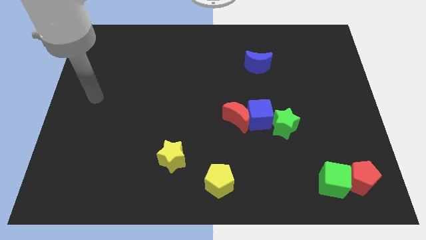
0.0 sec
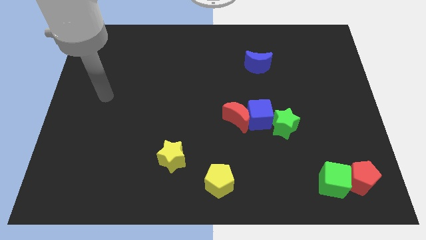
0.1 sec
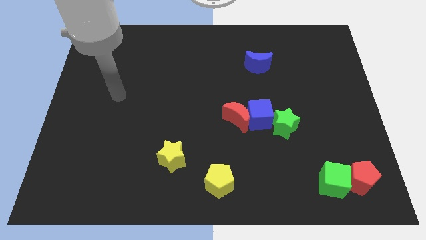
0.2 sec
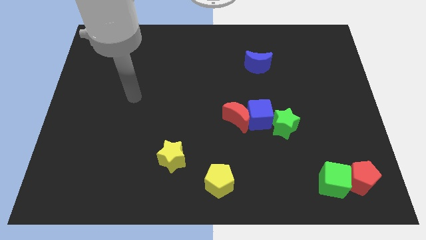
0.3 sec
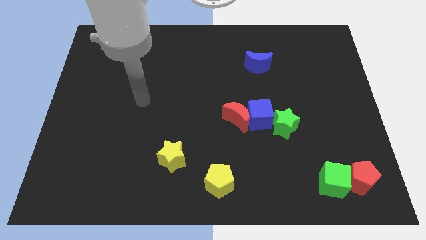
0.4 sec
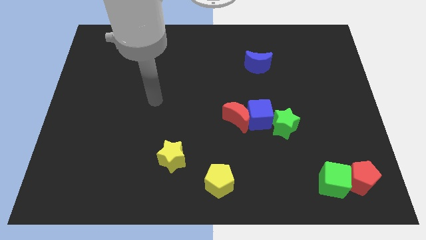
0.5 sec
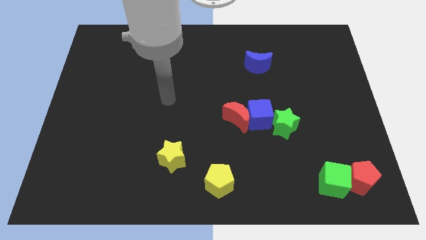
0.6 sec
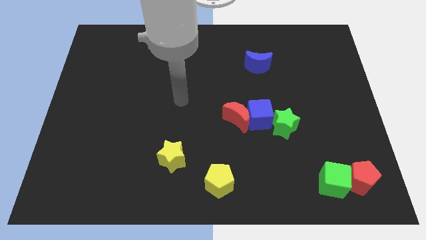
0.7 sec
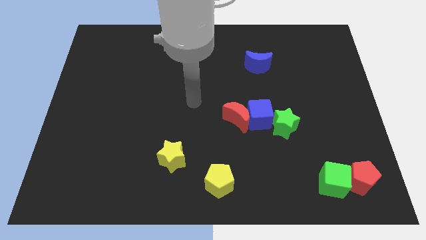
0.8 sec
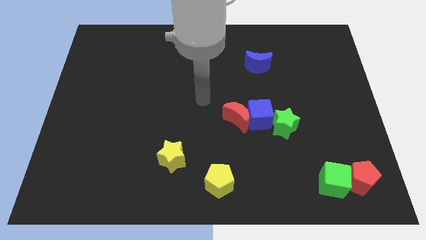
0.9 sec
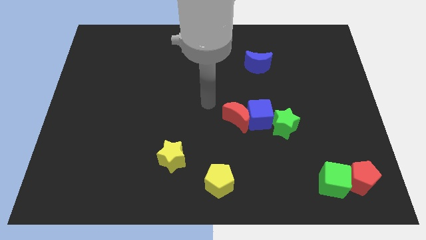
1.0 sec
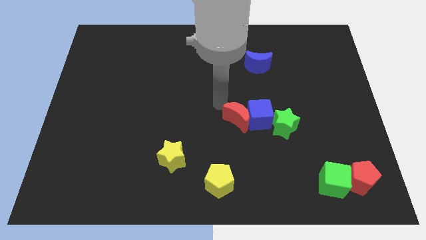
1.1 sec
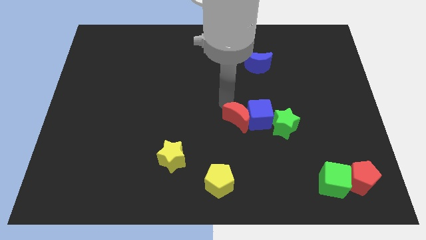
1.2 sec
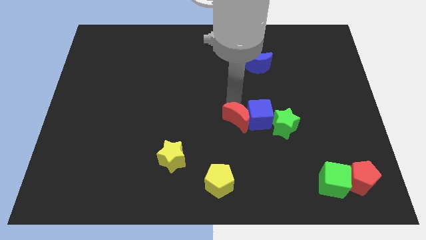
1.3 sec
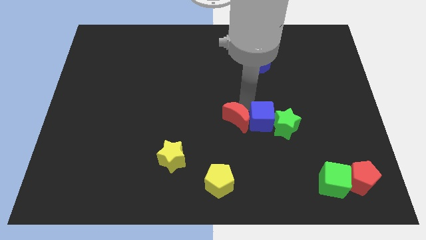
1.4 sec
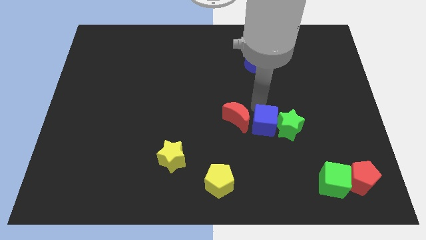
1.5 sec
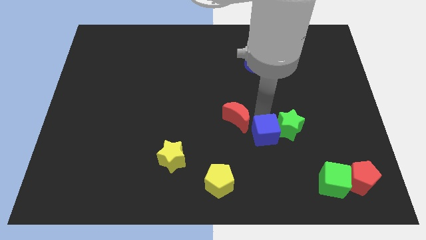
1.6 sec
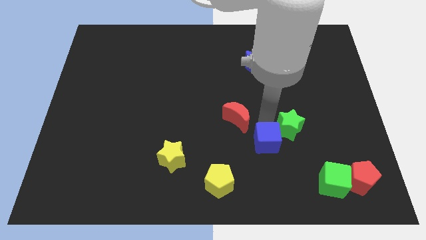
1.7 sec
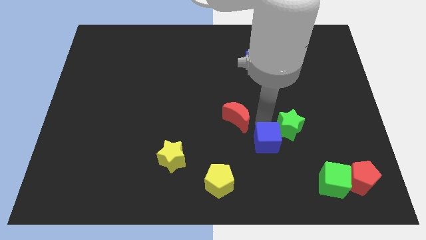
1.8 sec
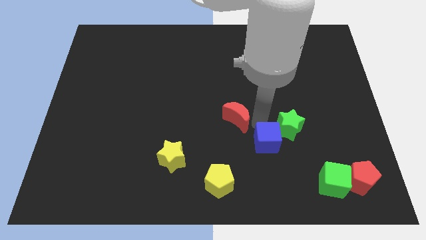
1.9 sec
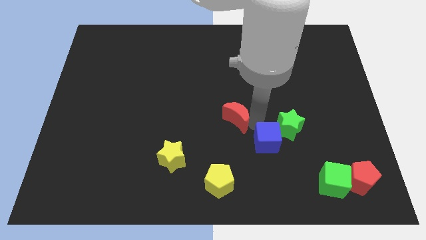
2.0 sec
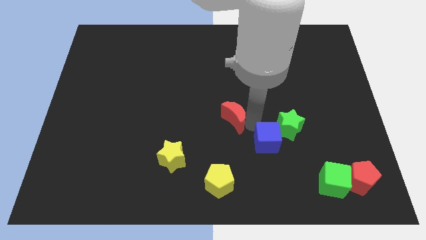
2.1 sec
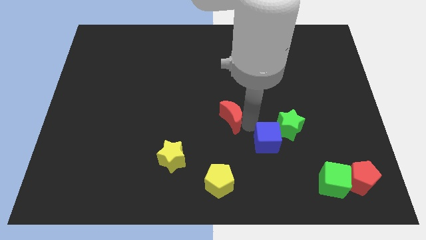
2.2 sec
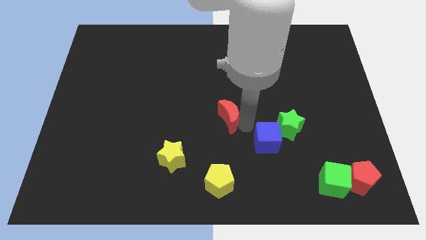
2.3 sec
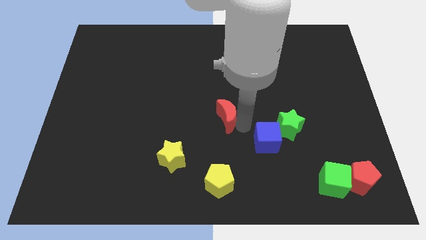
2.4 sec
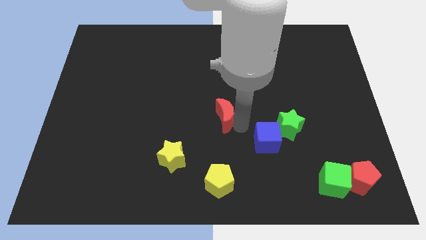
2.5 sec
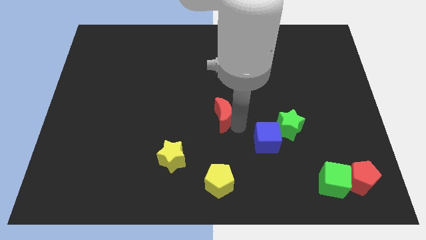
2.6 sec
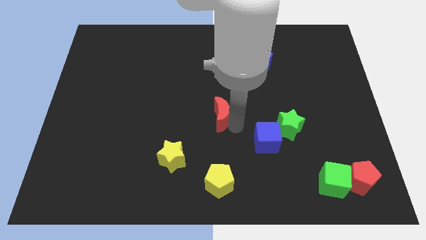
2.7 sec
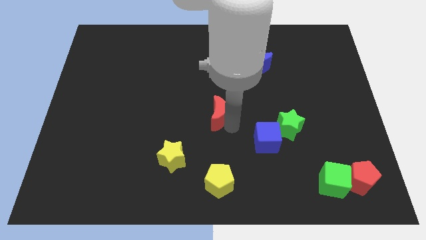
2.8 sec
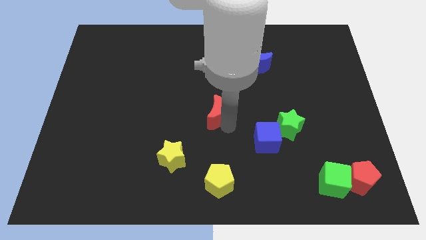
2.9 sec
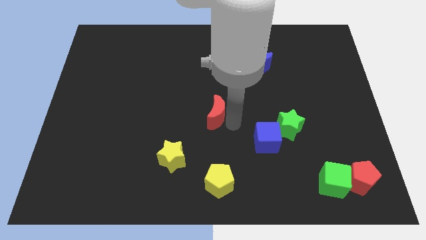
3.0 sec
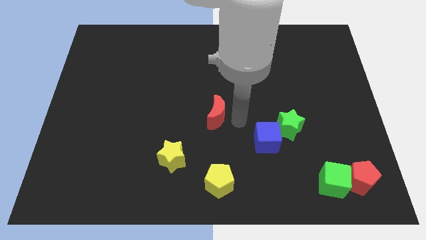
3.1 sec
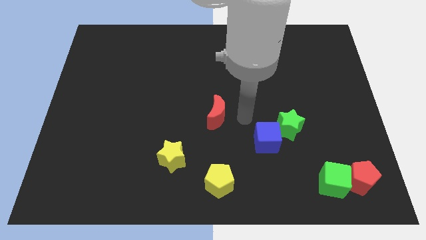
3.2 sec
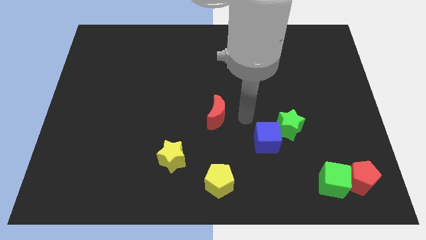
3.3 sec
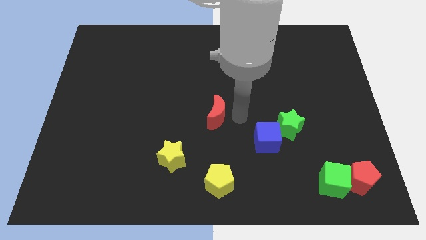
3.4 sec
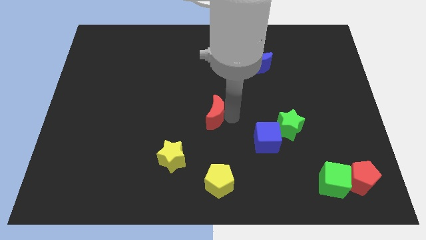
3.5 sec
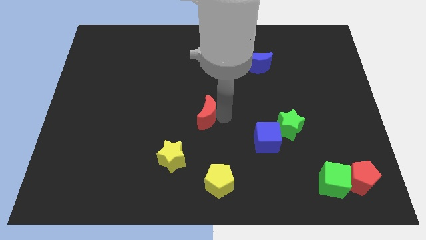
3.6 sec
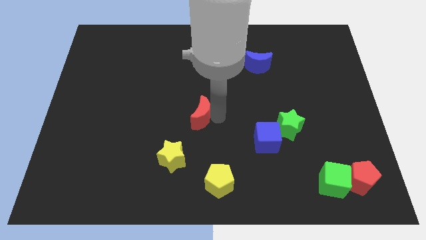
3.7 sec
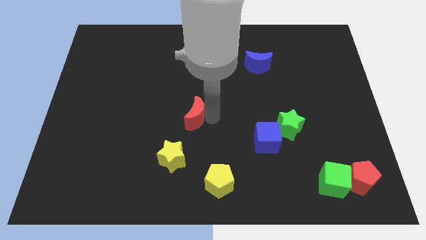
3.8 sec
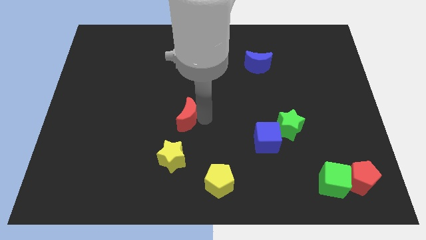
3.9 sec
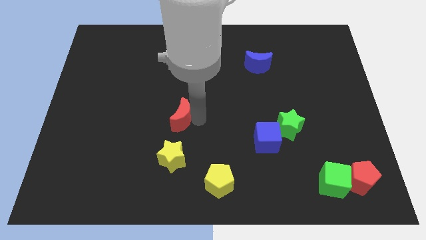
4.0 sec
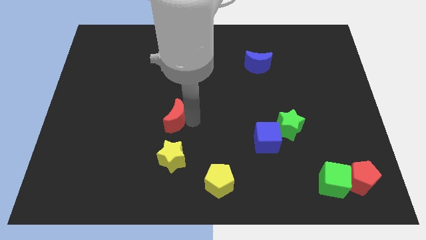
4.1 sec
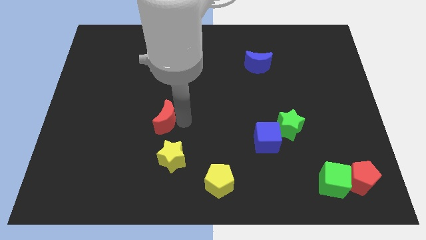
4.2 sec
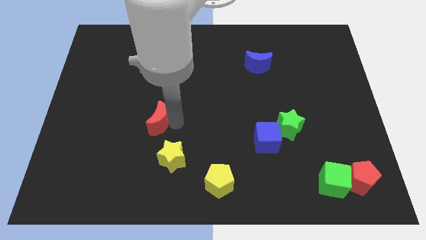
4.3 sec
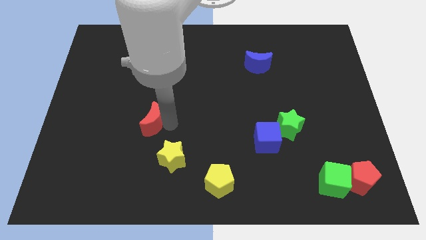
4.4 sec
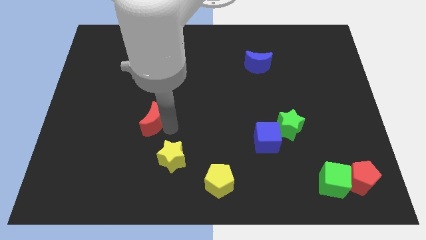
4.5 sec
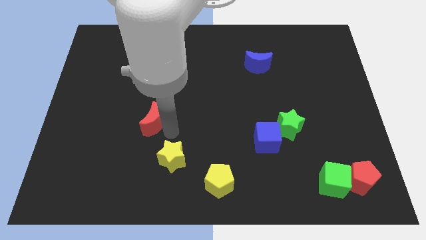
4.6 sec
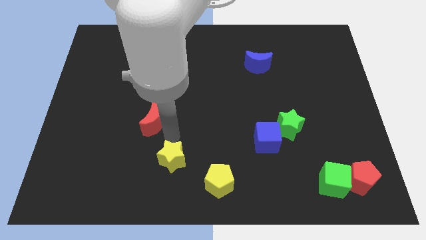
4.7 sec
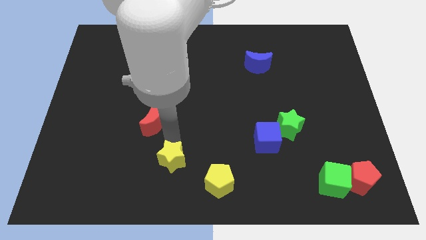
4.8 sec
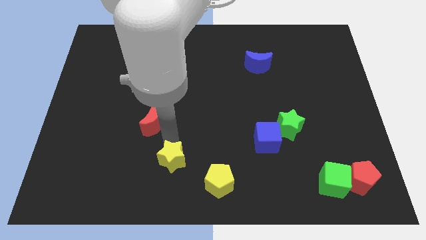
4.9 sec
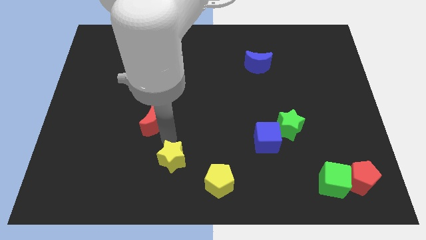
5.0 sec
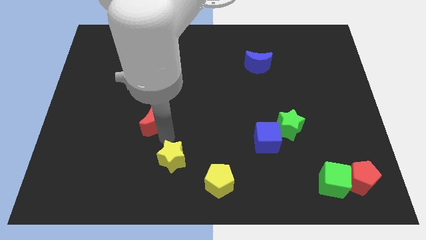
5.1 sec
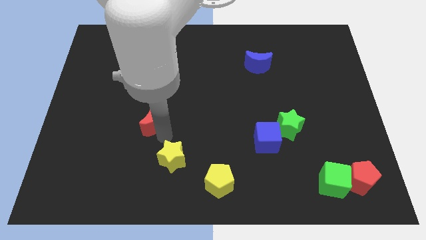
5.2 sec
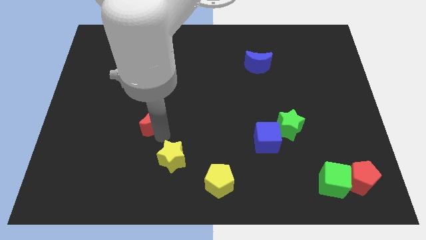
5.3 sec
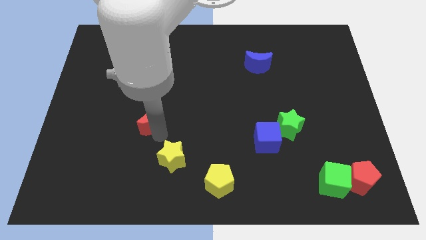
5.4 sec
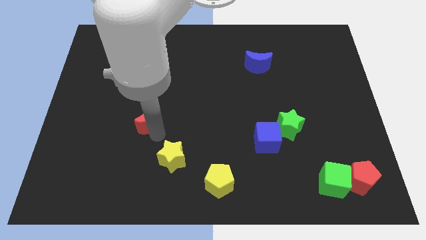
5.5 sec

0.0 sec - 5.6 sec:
move the red moon to the left

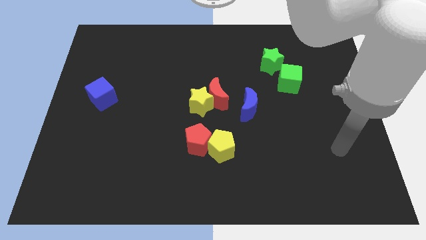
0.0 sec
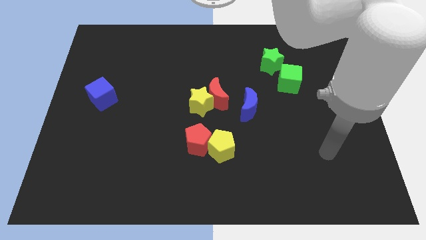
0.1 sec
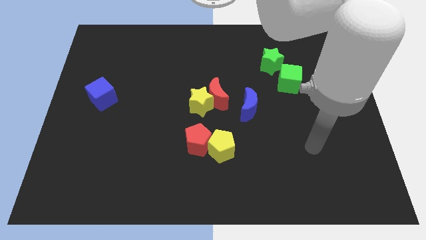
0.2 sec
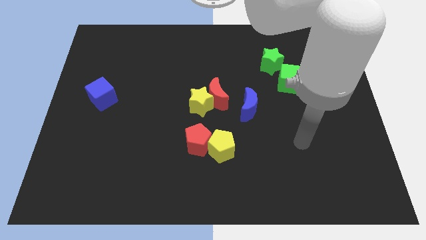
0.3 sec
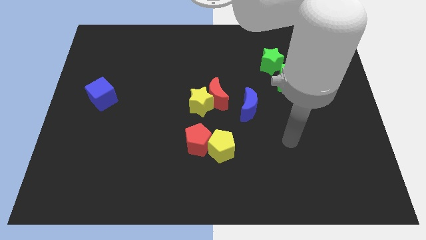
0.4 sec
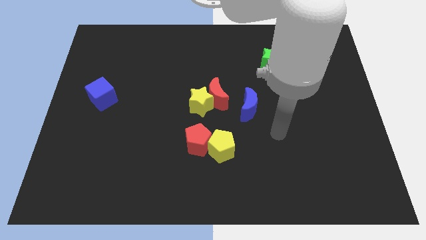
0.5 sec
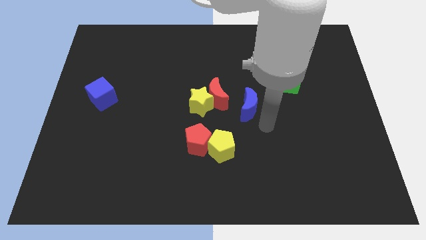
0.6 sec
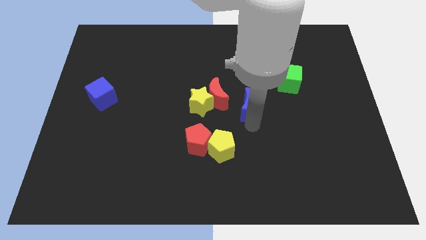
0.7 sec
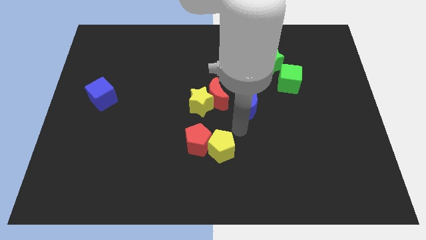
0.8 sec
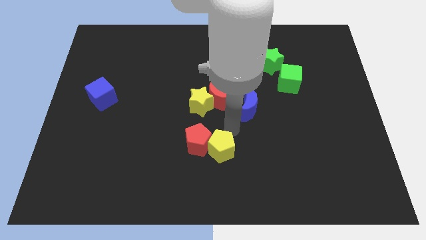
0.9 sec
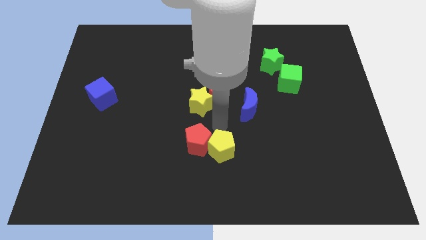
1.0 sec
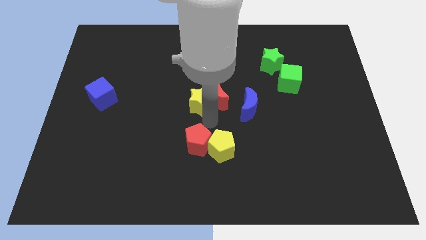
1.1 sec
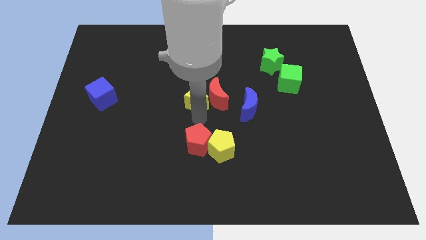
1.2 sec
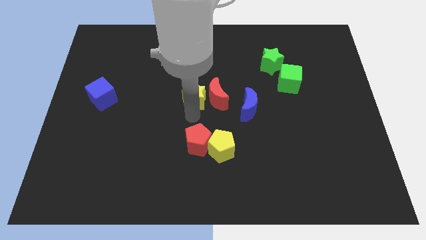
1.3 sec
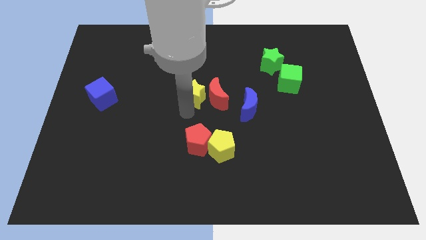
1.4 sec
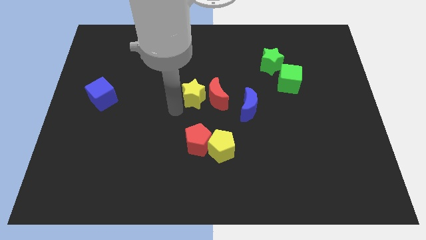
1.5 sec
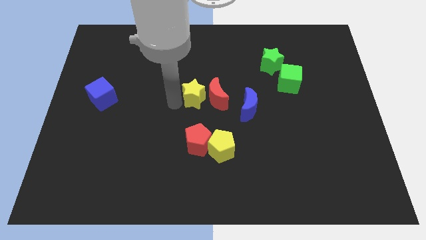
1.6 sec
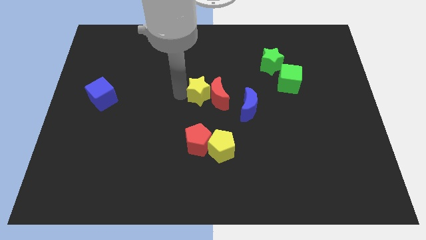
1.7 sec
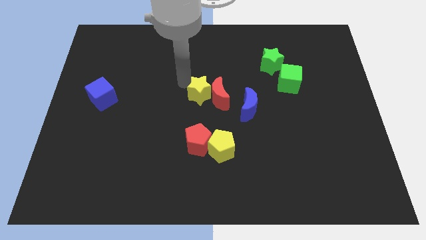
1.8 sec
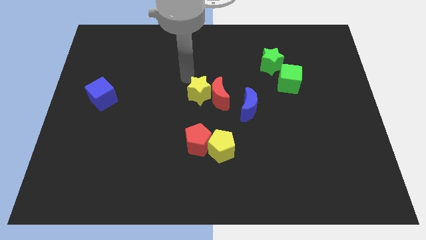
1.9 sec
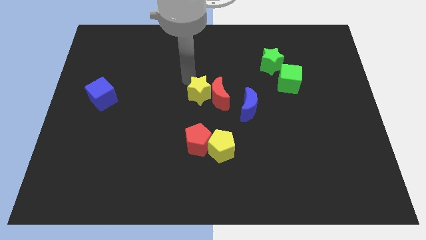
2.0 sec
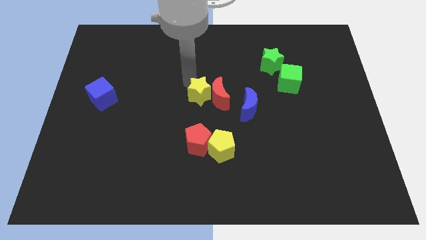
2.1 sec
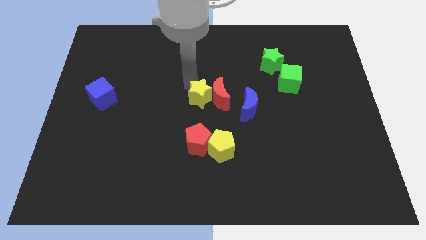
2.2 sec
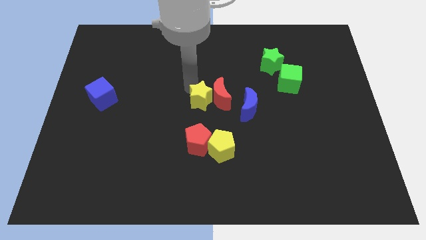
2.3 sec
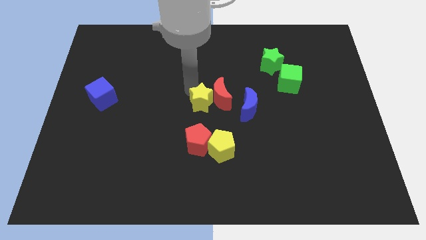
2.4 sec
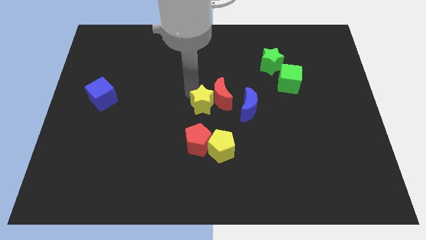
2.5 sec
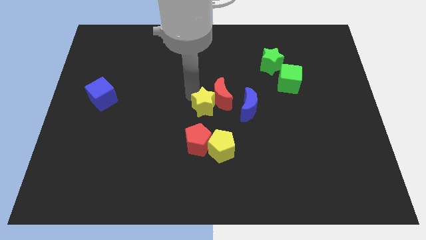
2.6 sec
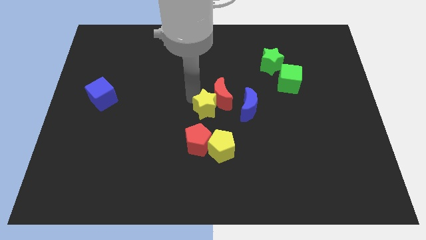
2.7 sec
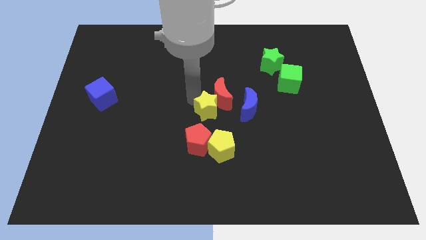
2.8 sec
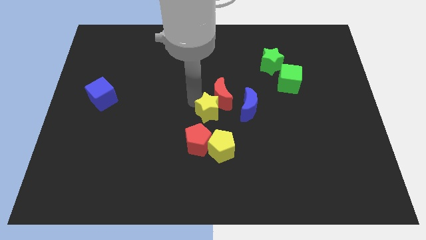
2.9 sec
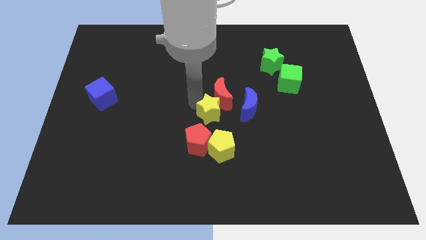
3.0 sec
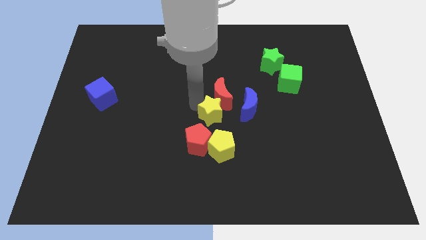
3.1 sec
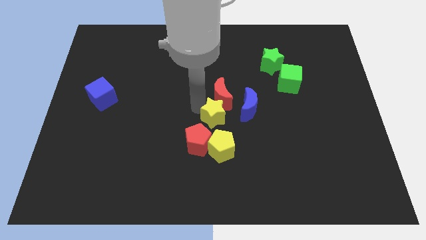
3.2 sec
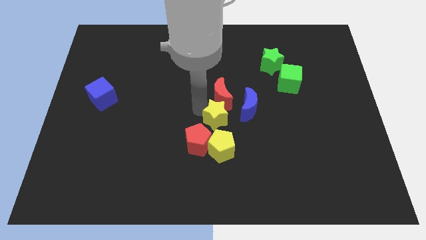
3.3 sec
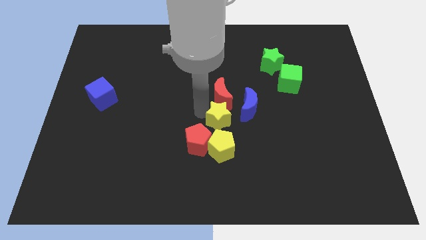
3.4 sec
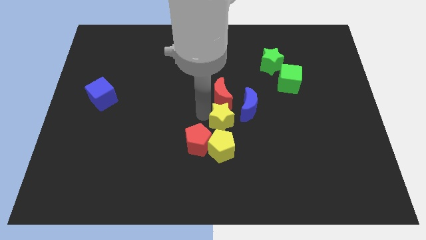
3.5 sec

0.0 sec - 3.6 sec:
push the yellow star down and to the right a little bit
